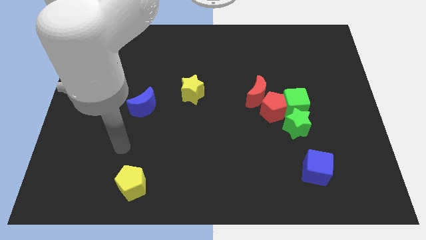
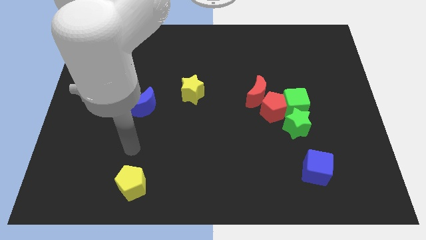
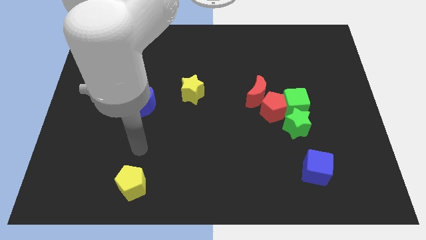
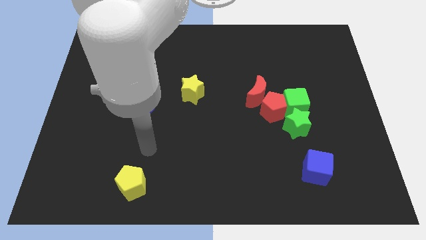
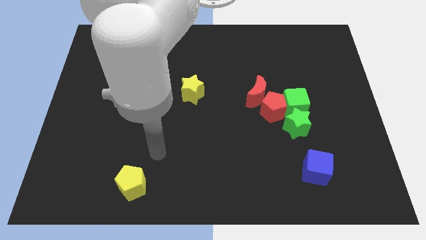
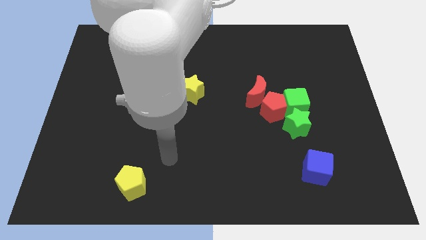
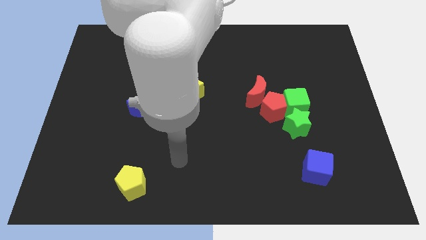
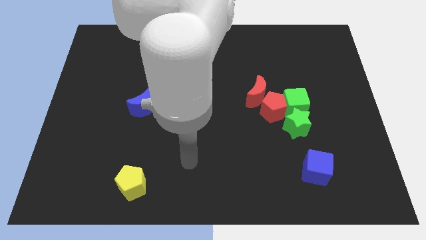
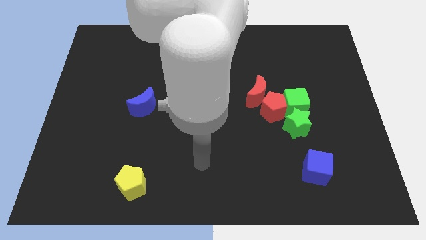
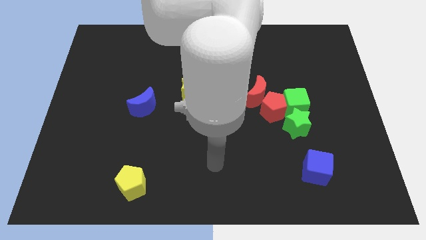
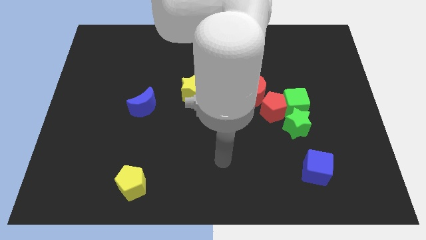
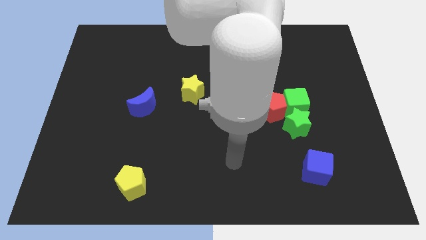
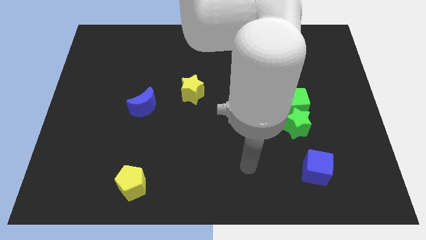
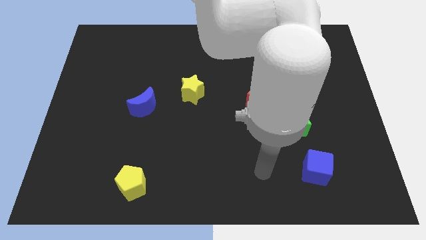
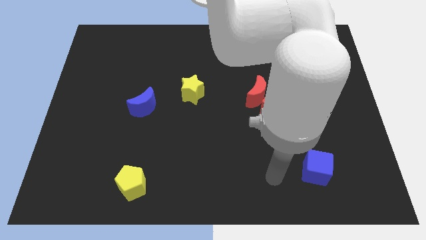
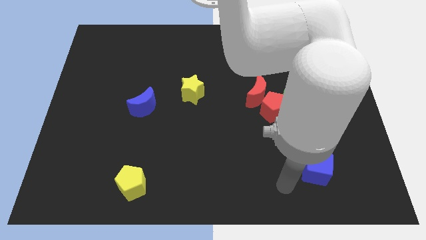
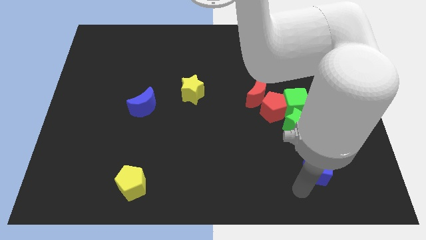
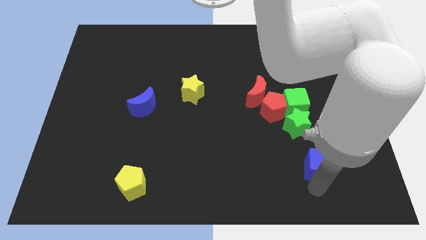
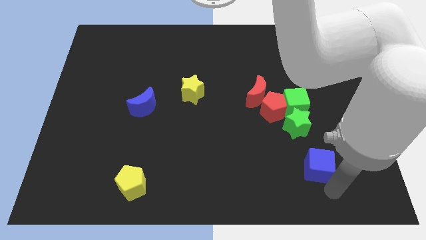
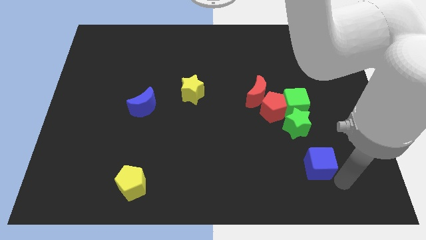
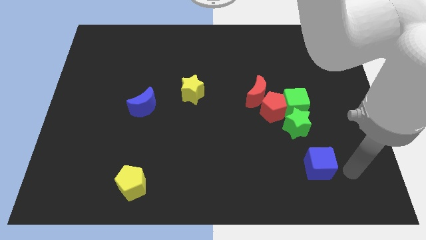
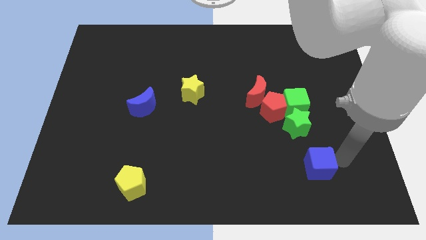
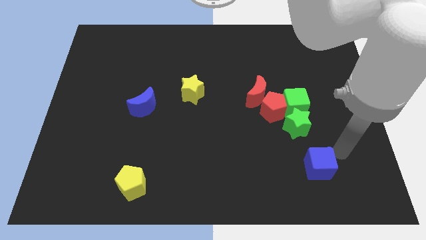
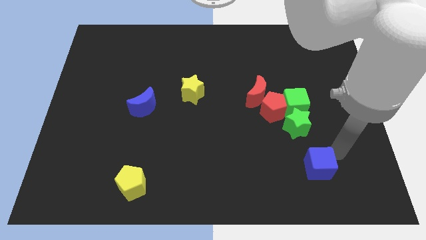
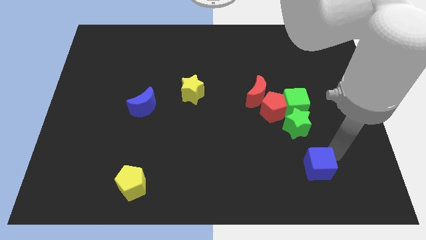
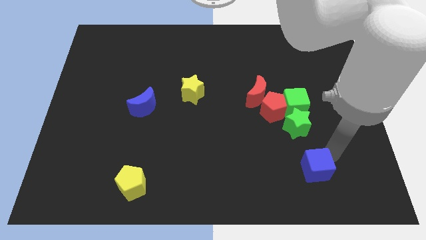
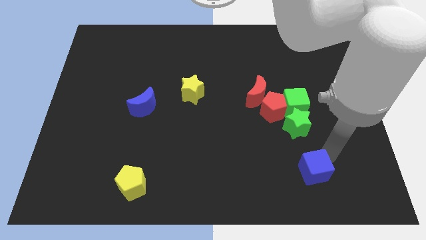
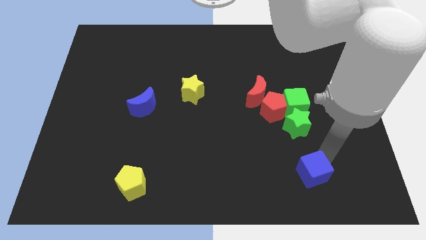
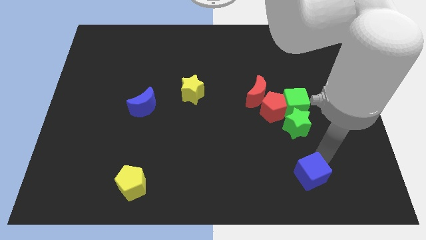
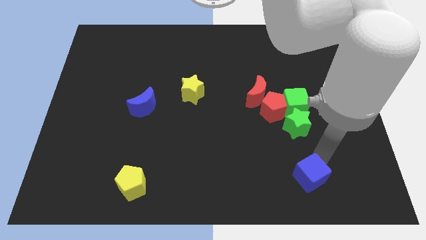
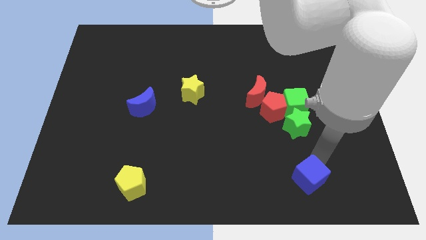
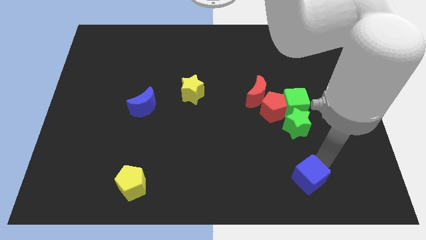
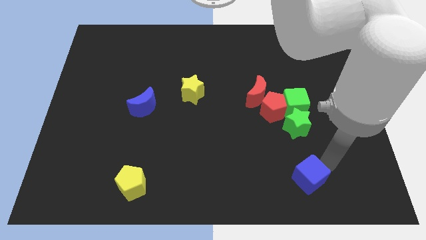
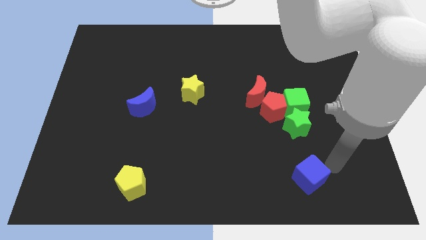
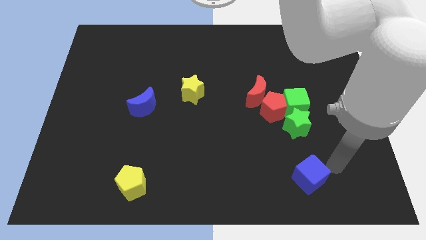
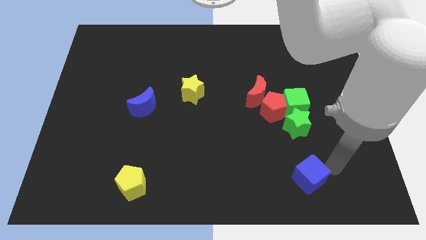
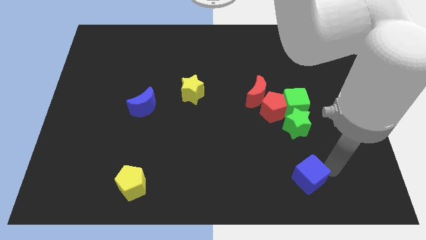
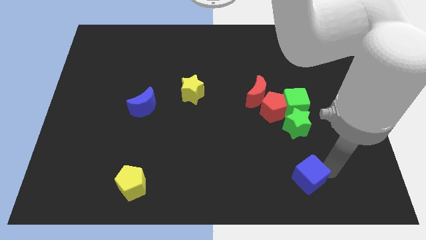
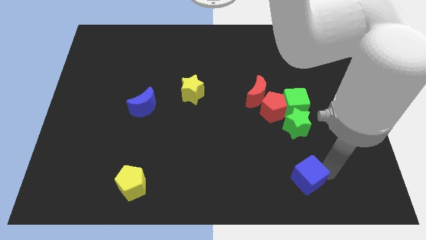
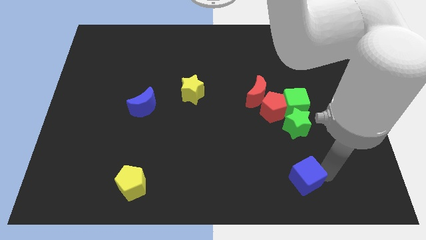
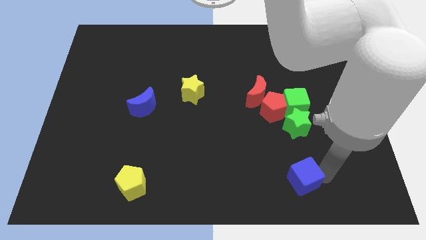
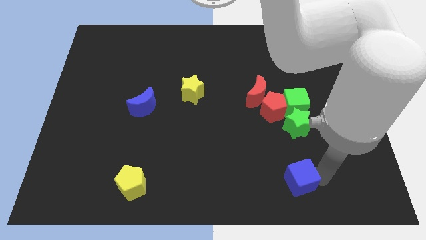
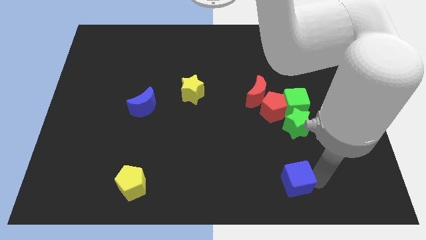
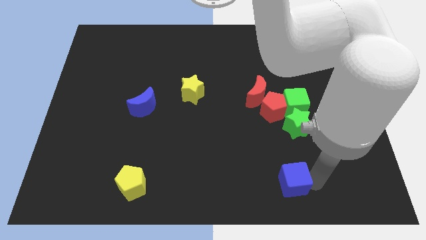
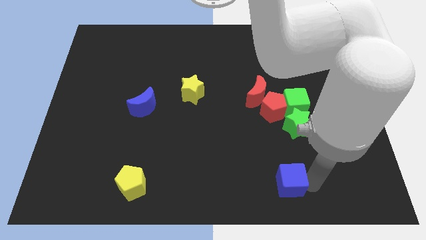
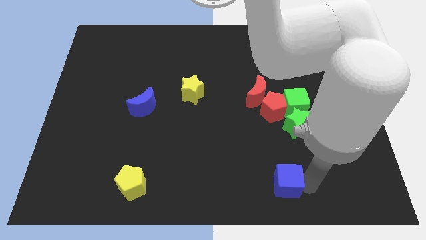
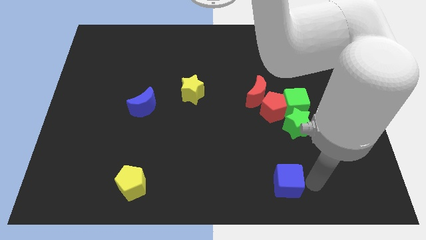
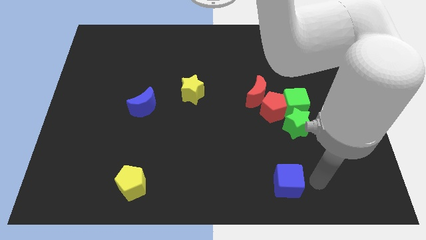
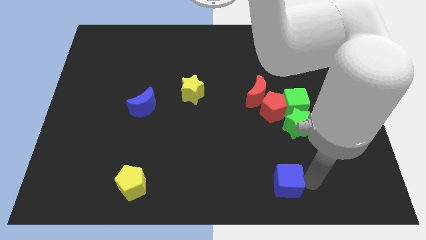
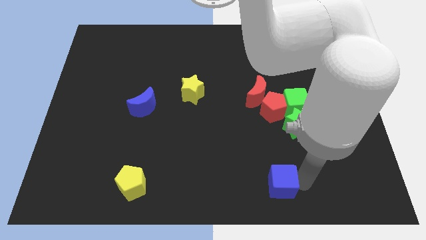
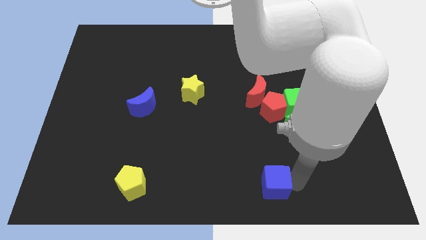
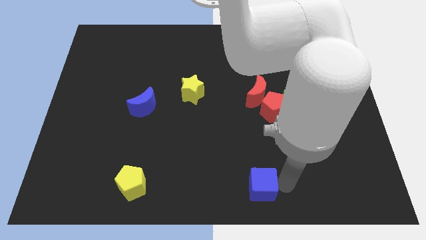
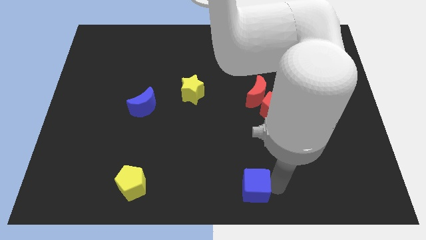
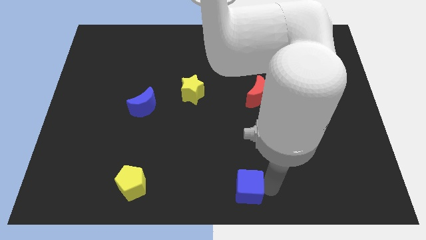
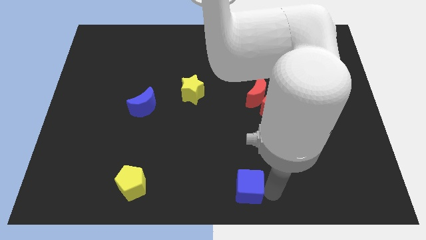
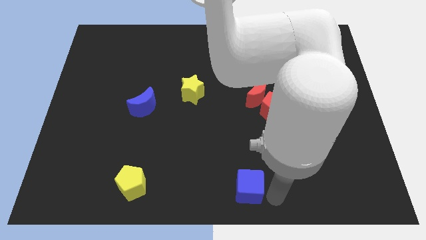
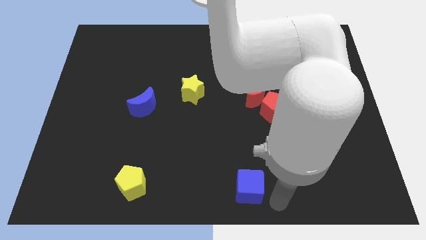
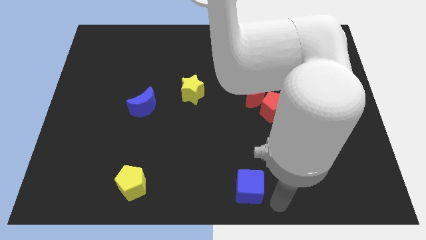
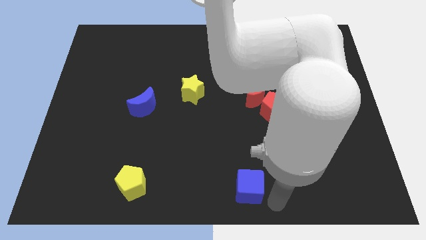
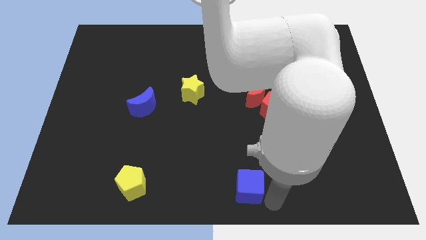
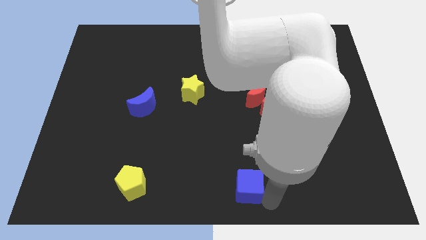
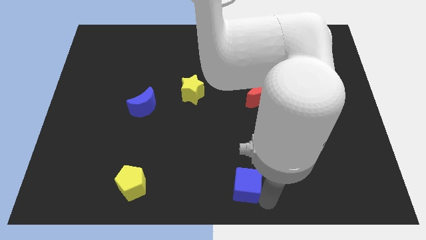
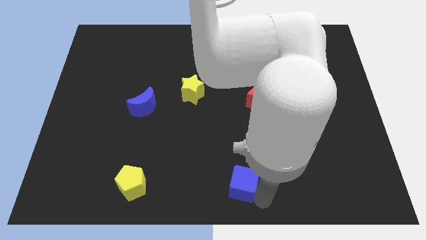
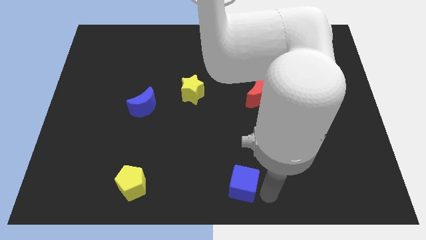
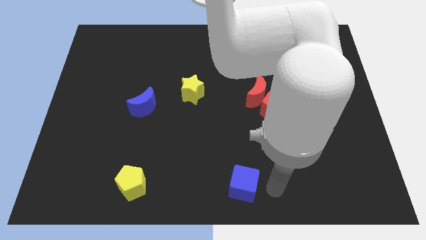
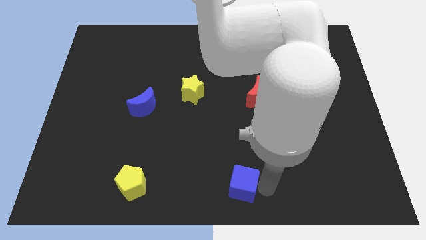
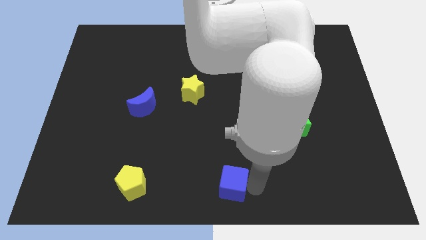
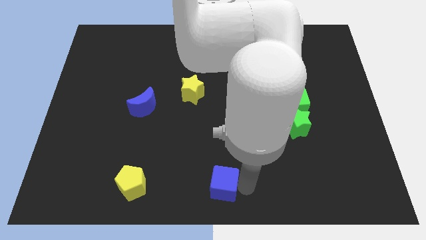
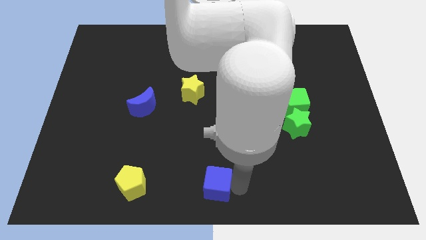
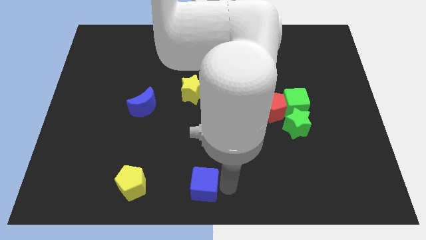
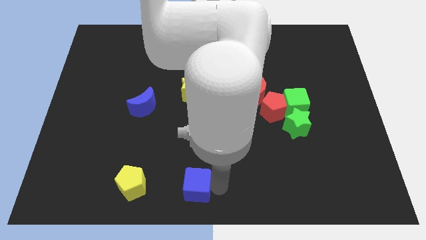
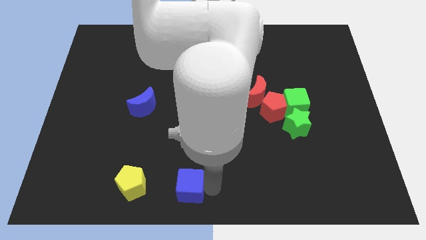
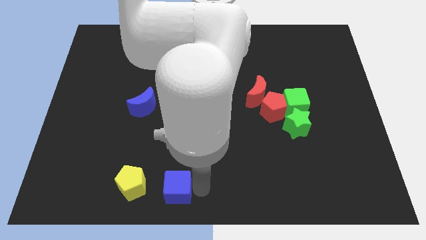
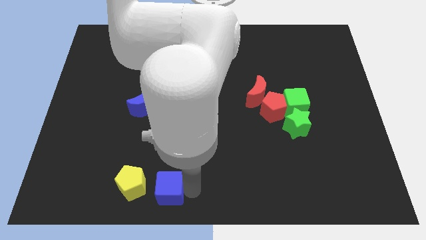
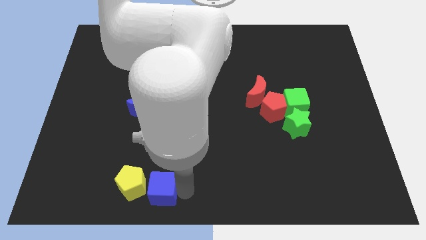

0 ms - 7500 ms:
move the blue cube towards the yellow pentagon
